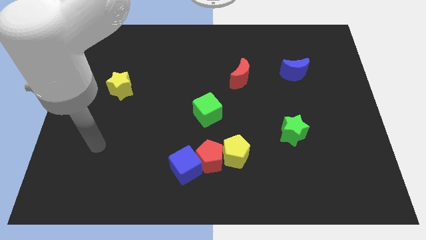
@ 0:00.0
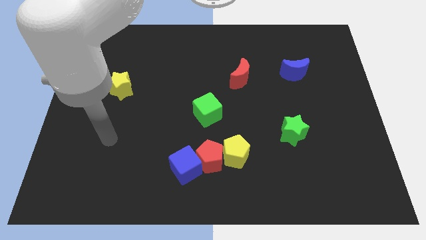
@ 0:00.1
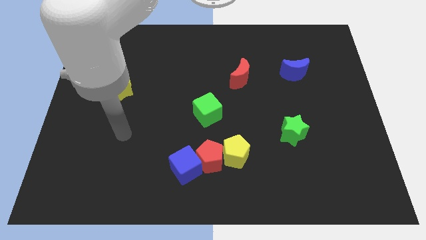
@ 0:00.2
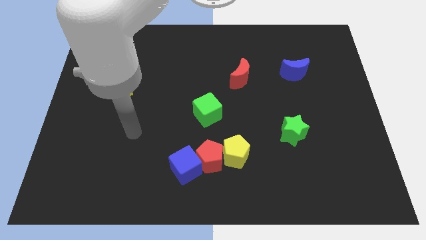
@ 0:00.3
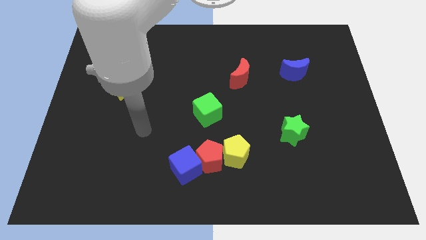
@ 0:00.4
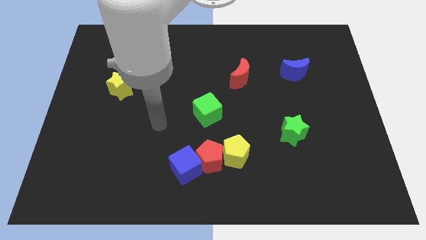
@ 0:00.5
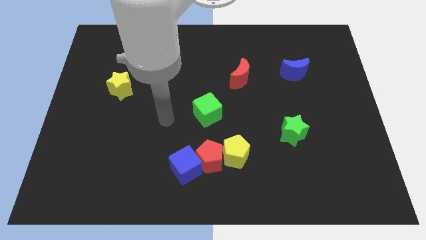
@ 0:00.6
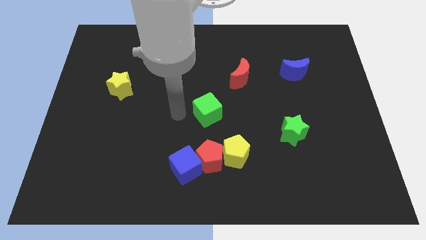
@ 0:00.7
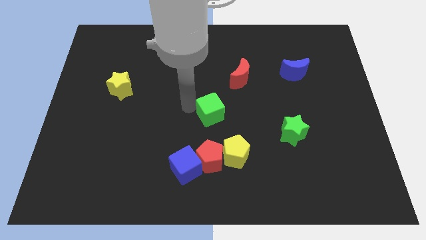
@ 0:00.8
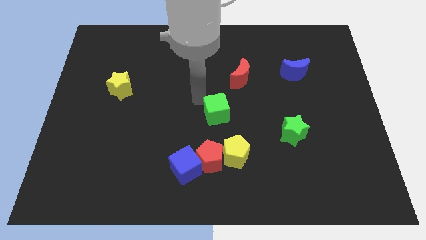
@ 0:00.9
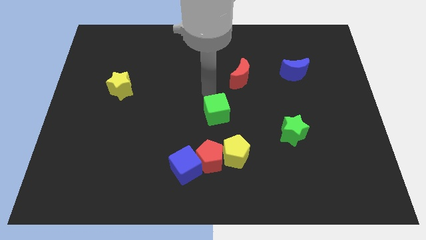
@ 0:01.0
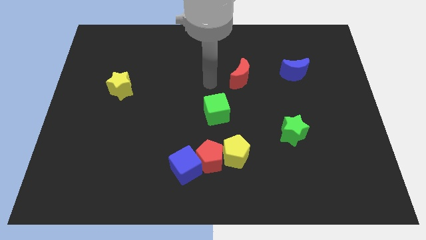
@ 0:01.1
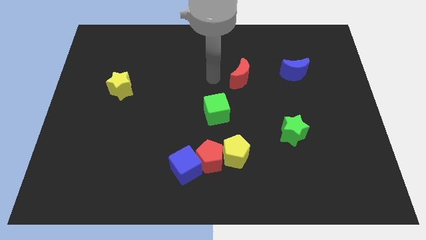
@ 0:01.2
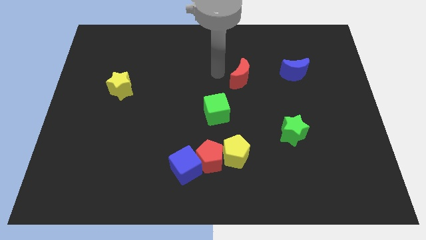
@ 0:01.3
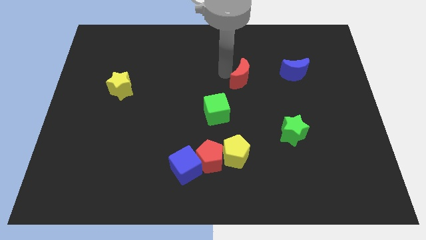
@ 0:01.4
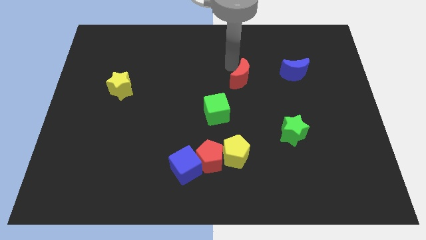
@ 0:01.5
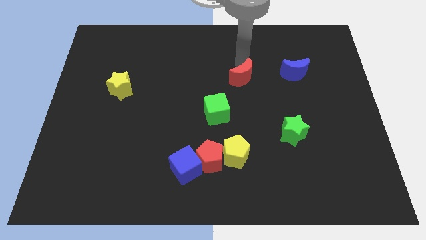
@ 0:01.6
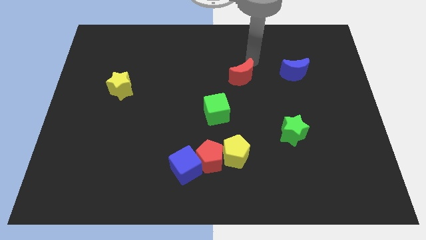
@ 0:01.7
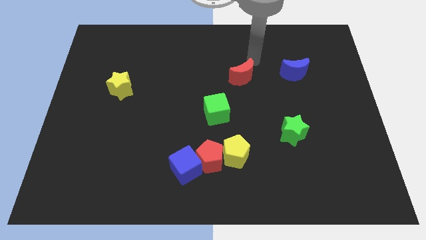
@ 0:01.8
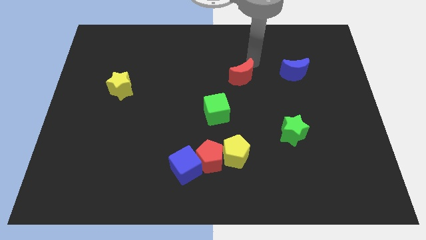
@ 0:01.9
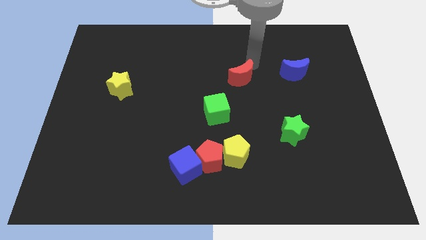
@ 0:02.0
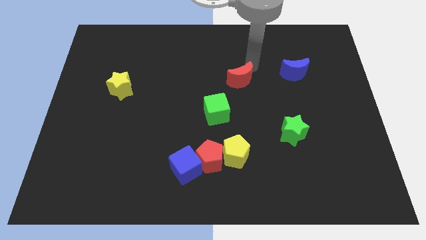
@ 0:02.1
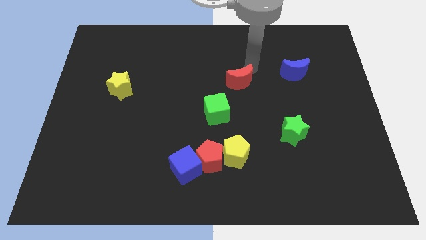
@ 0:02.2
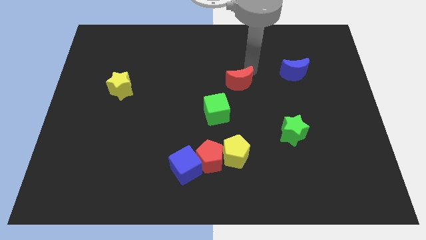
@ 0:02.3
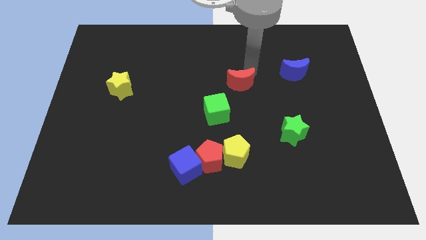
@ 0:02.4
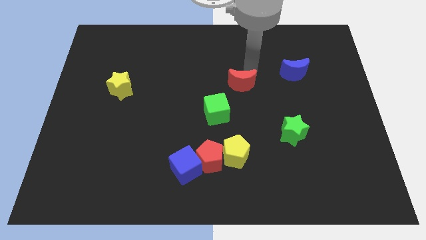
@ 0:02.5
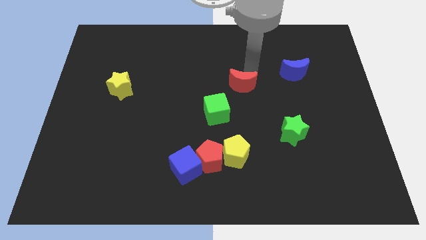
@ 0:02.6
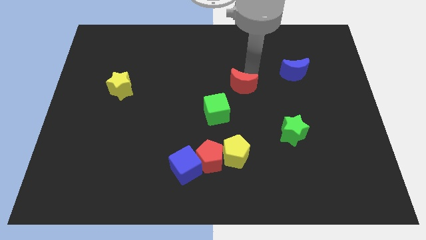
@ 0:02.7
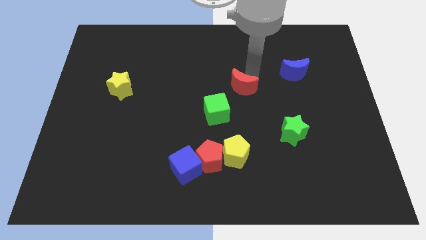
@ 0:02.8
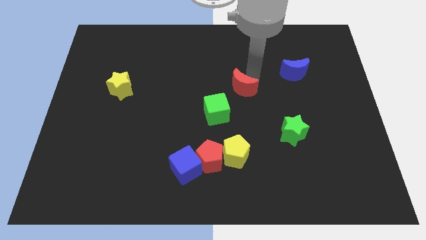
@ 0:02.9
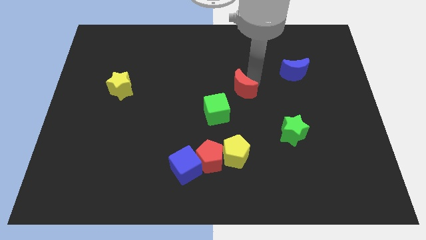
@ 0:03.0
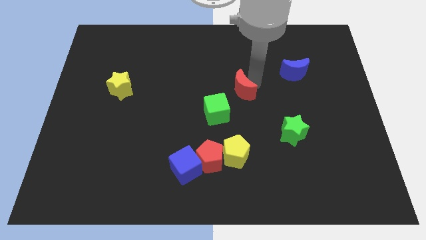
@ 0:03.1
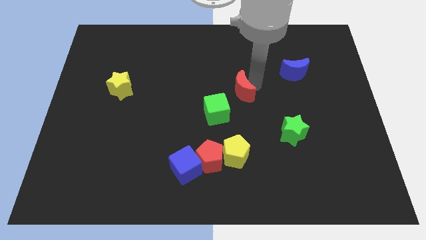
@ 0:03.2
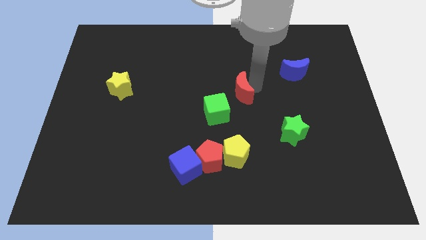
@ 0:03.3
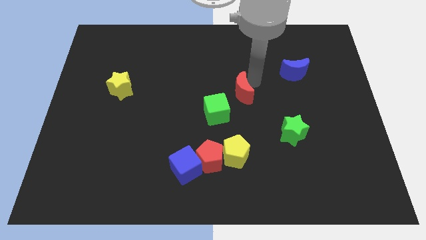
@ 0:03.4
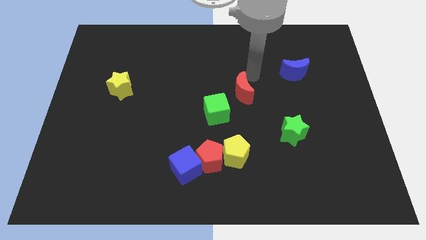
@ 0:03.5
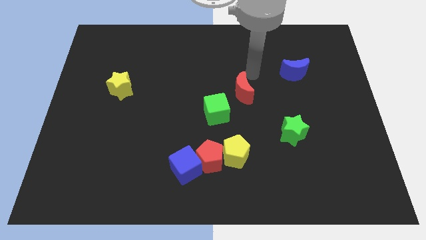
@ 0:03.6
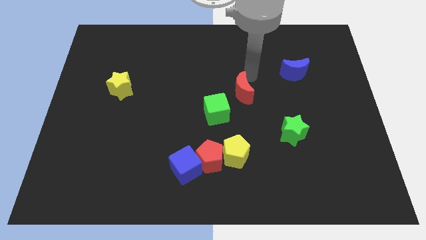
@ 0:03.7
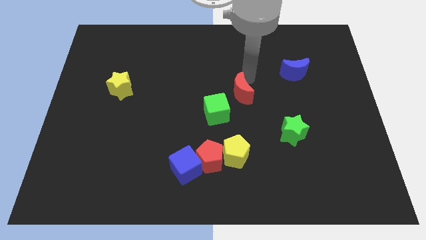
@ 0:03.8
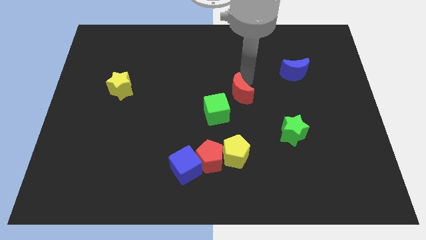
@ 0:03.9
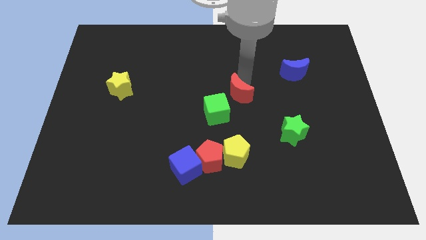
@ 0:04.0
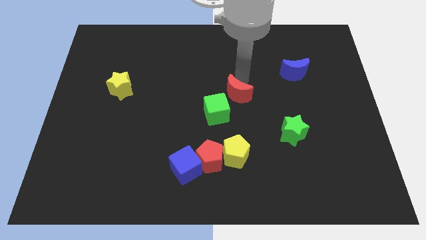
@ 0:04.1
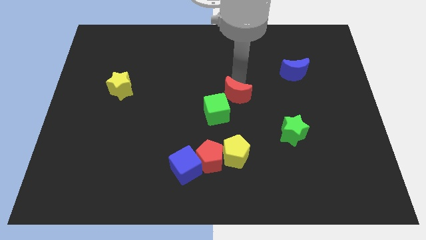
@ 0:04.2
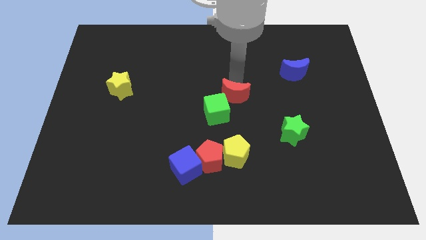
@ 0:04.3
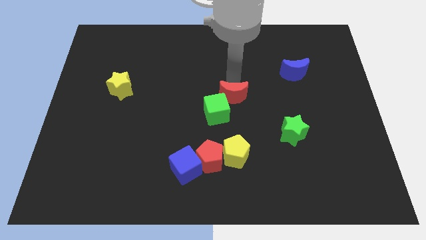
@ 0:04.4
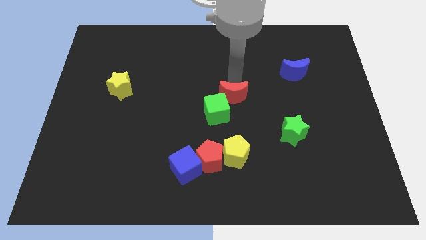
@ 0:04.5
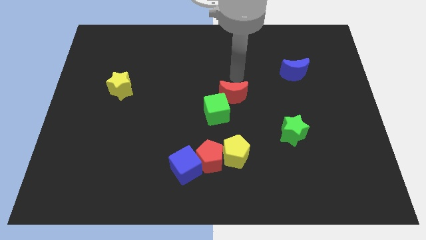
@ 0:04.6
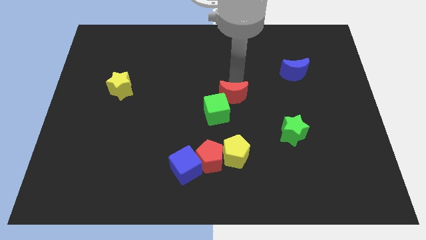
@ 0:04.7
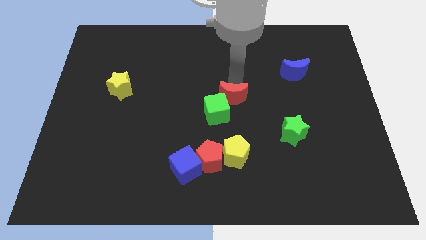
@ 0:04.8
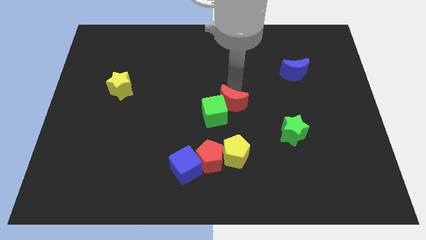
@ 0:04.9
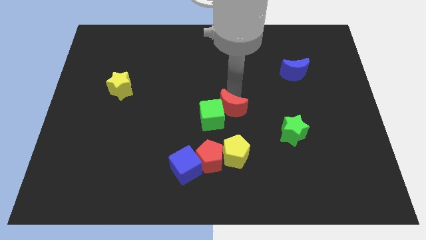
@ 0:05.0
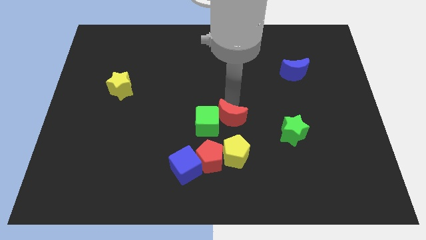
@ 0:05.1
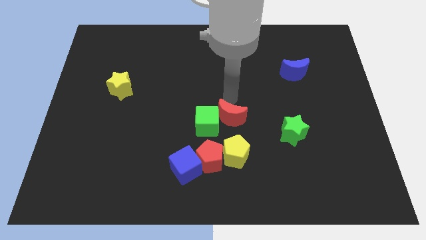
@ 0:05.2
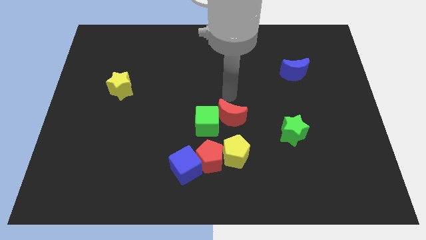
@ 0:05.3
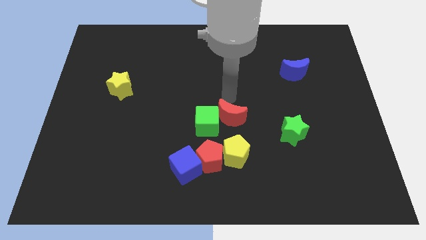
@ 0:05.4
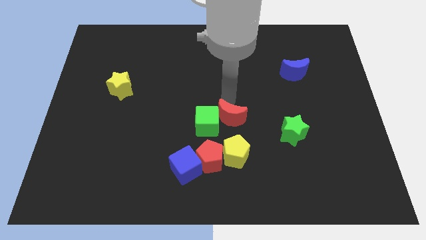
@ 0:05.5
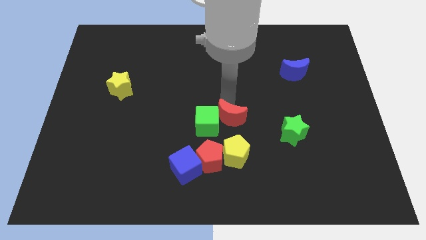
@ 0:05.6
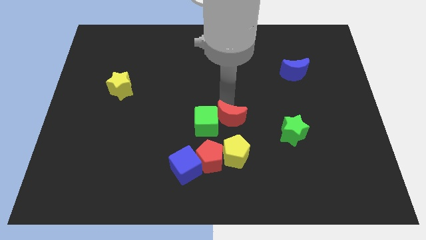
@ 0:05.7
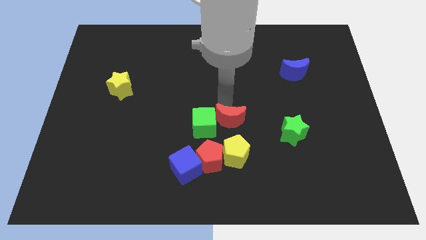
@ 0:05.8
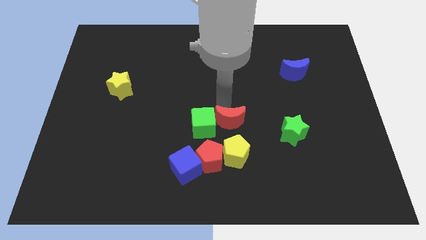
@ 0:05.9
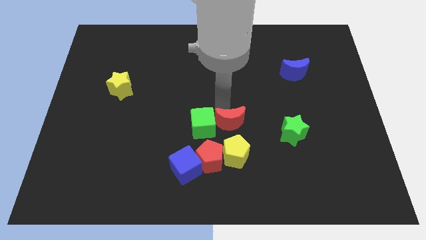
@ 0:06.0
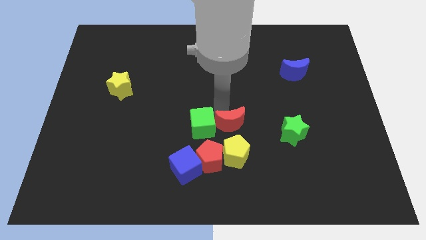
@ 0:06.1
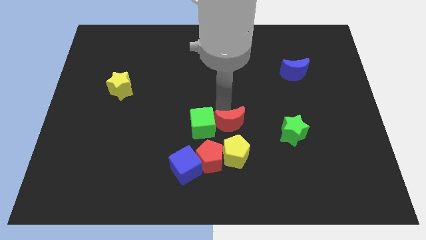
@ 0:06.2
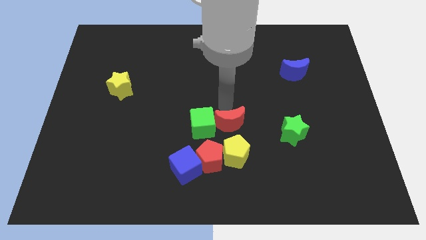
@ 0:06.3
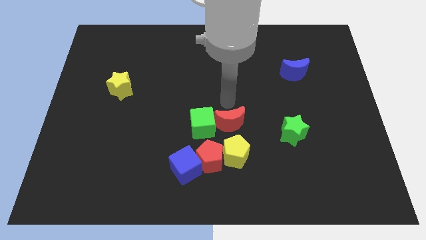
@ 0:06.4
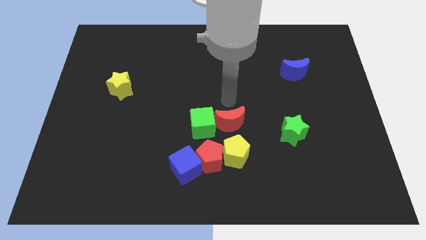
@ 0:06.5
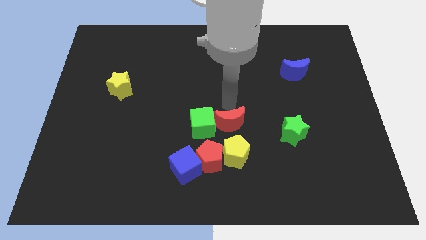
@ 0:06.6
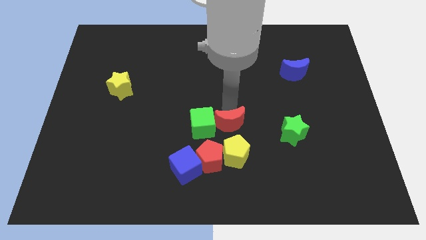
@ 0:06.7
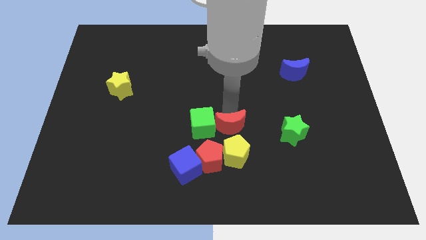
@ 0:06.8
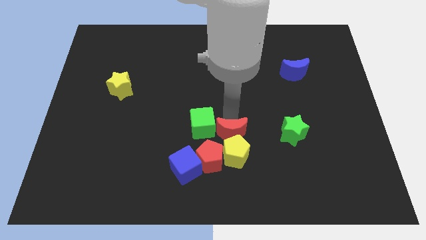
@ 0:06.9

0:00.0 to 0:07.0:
slide the red moon towards the yellow pentagon
